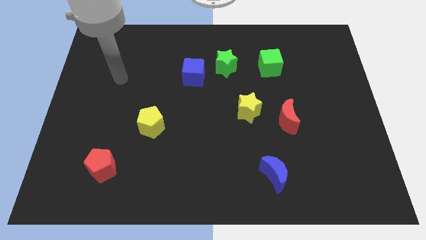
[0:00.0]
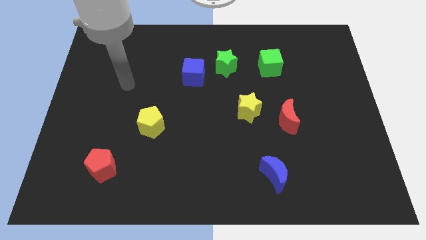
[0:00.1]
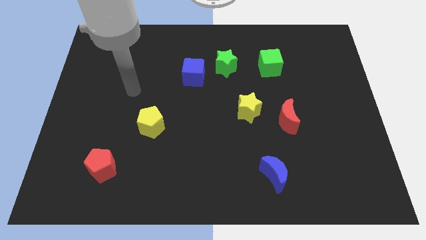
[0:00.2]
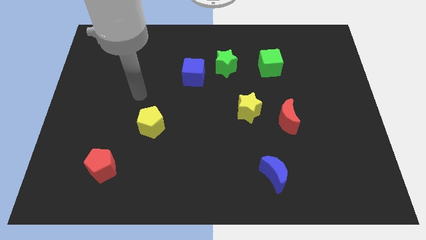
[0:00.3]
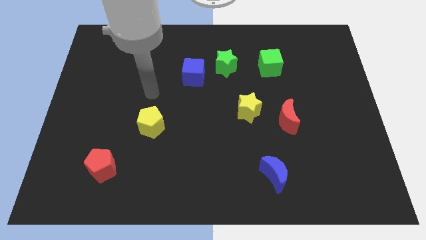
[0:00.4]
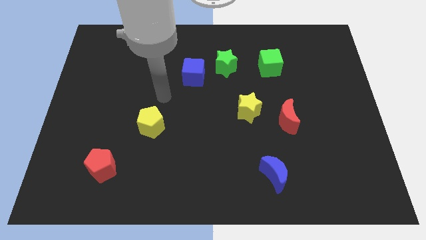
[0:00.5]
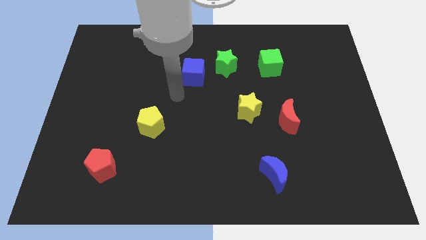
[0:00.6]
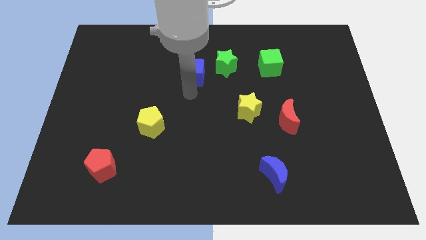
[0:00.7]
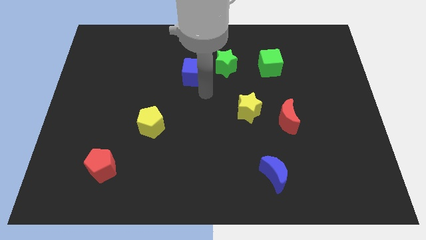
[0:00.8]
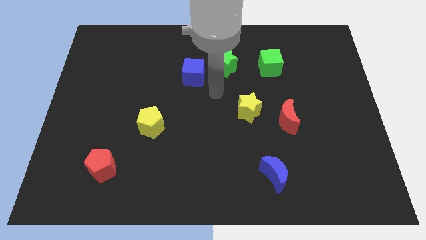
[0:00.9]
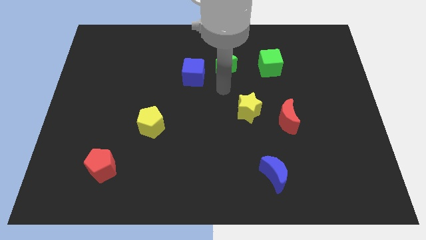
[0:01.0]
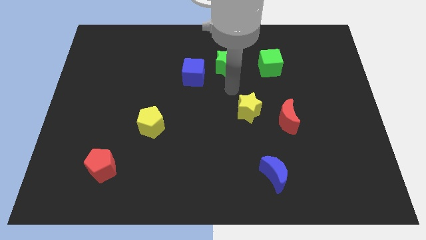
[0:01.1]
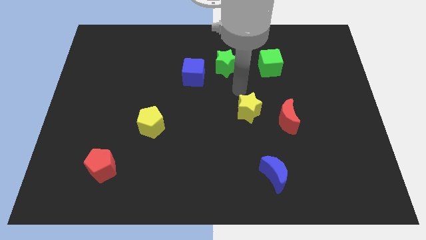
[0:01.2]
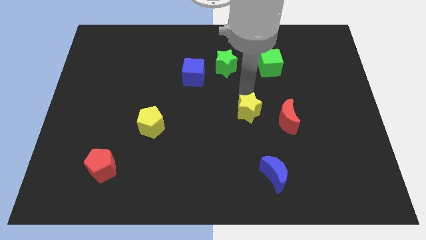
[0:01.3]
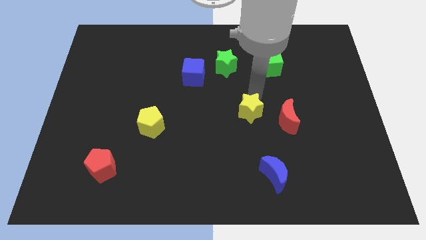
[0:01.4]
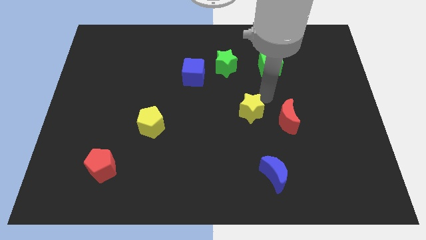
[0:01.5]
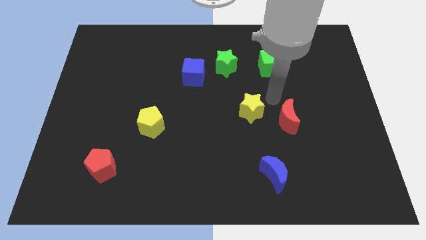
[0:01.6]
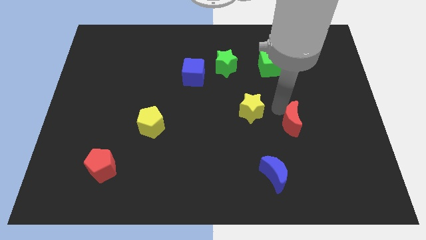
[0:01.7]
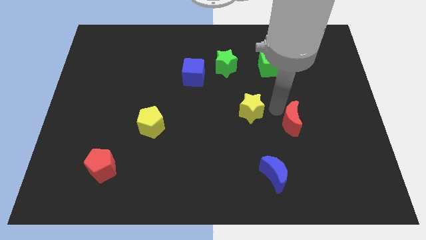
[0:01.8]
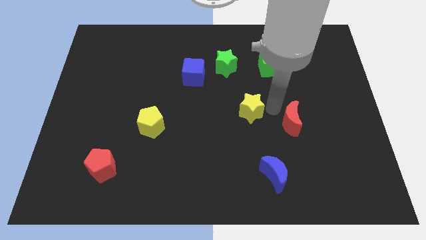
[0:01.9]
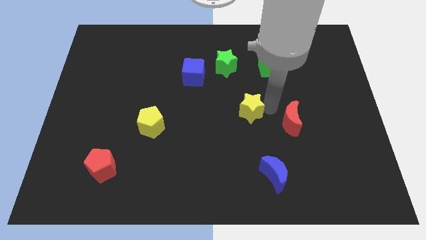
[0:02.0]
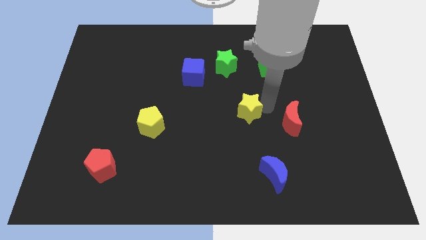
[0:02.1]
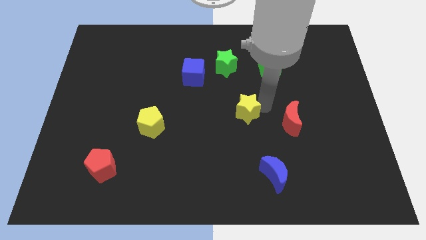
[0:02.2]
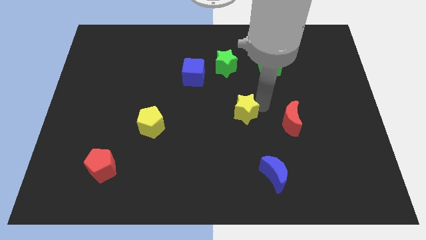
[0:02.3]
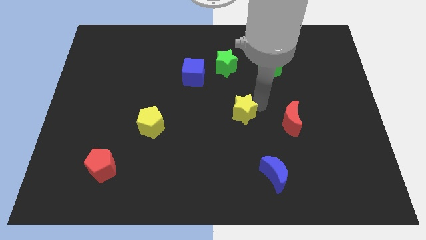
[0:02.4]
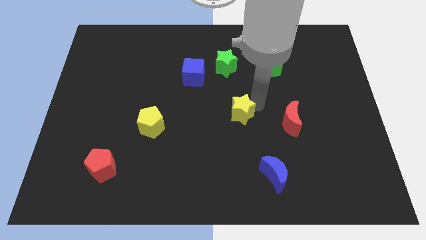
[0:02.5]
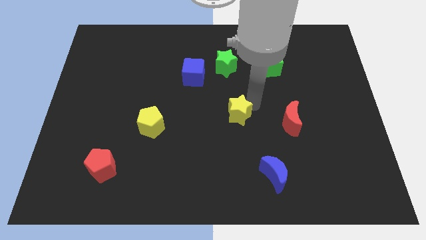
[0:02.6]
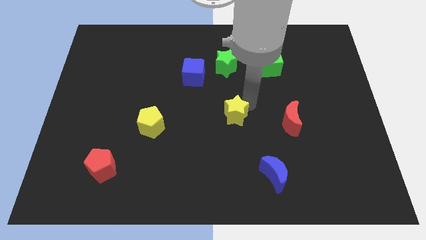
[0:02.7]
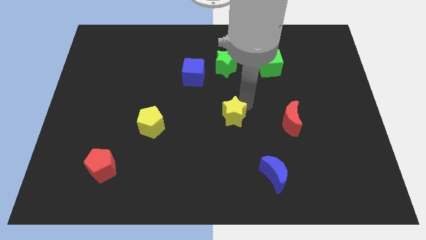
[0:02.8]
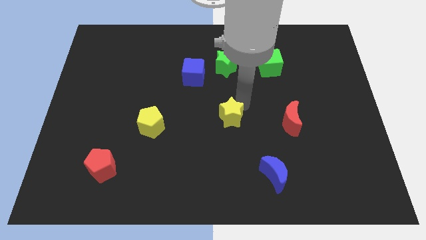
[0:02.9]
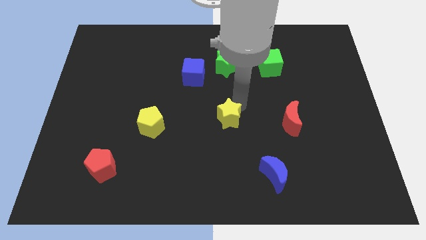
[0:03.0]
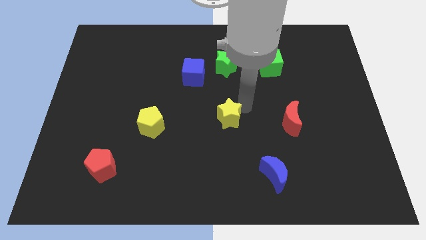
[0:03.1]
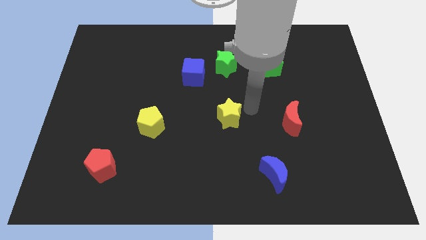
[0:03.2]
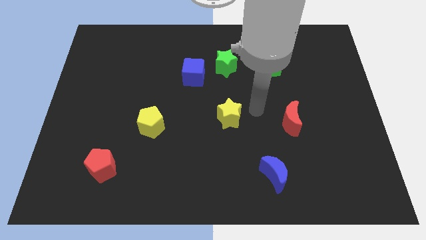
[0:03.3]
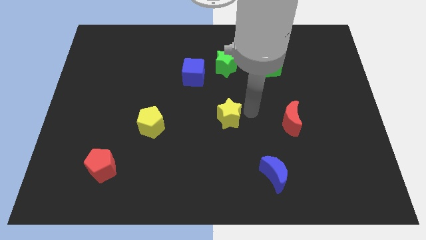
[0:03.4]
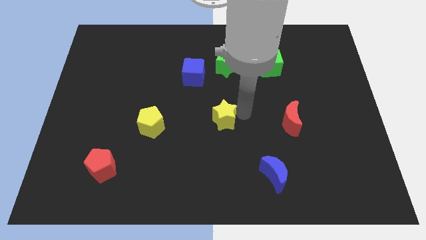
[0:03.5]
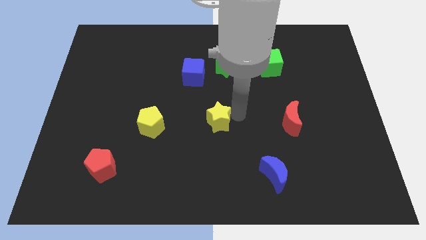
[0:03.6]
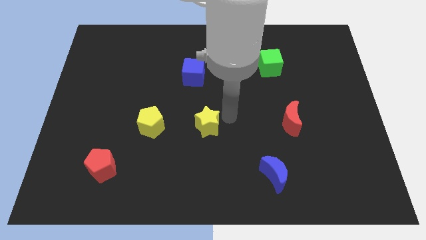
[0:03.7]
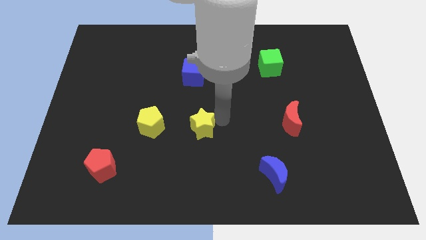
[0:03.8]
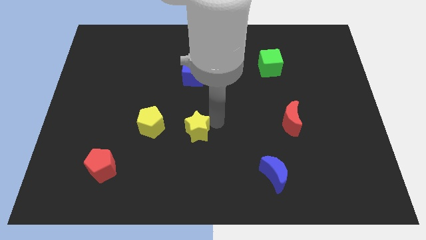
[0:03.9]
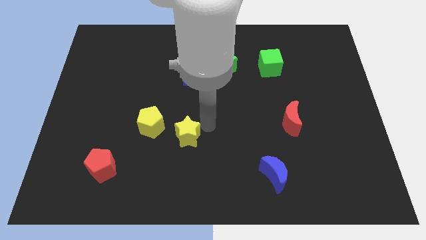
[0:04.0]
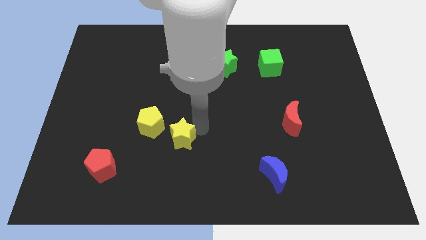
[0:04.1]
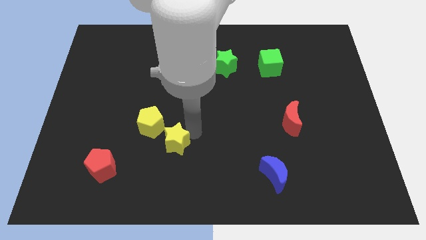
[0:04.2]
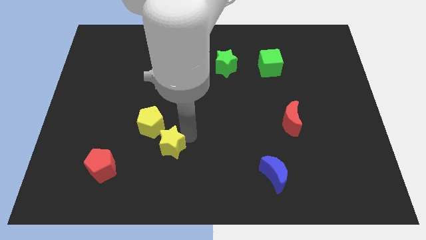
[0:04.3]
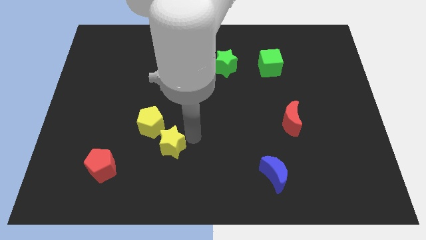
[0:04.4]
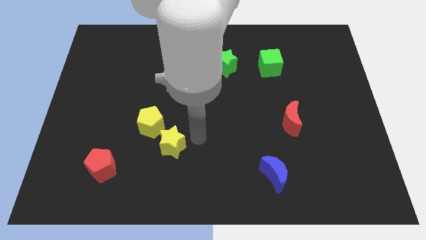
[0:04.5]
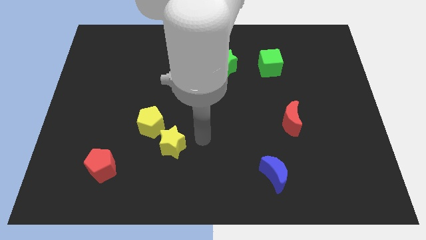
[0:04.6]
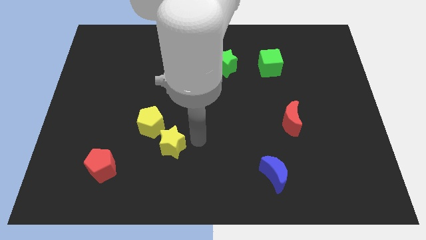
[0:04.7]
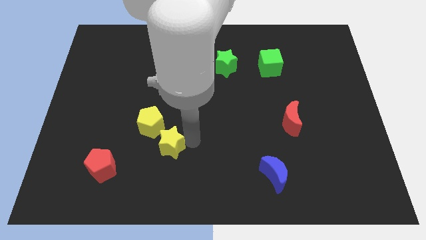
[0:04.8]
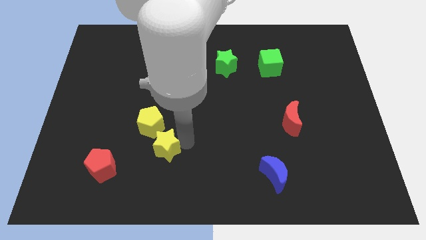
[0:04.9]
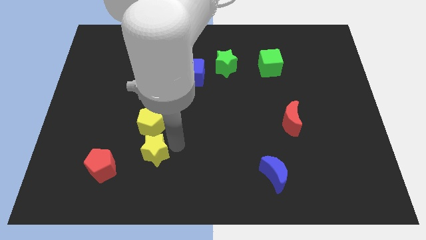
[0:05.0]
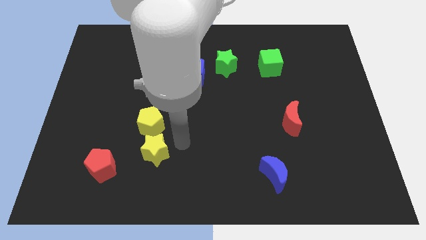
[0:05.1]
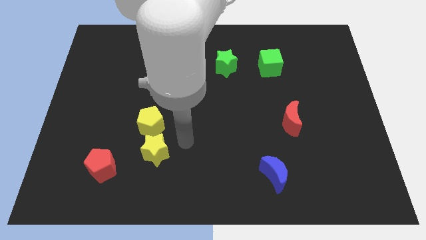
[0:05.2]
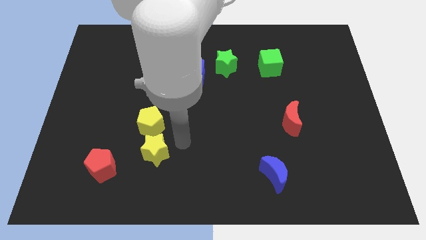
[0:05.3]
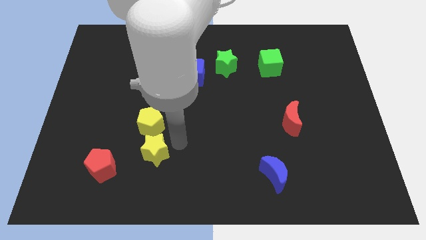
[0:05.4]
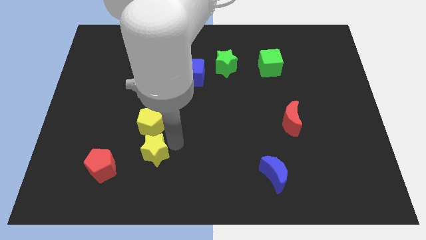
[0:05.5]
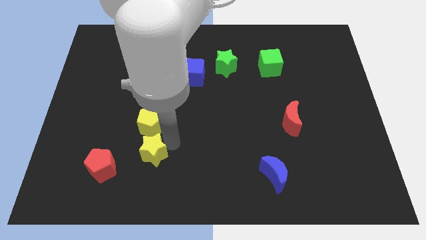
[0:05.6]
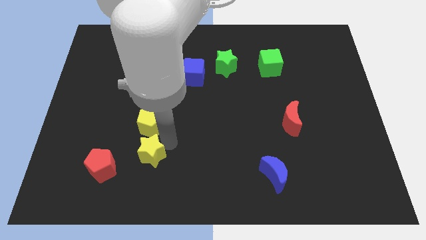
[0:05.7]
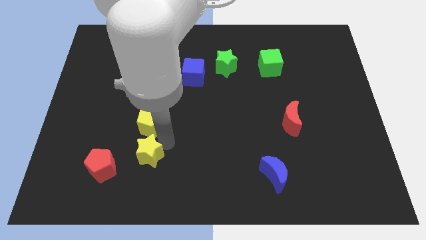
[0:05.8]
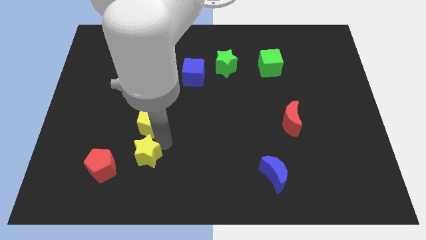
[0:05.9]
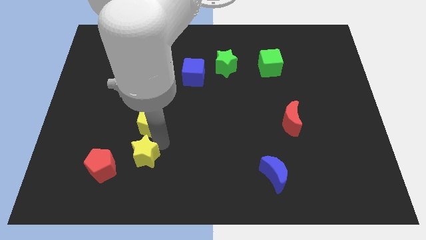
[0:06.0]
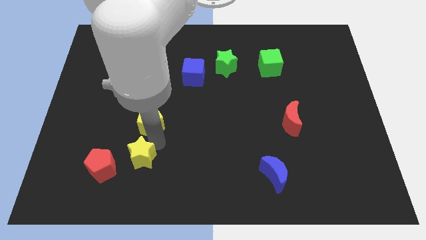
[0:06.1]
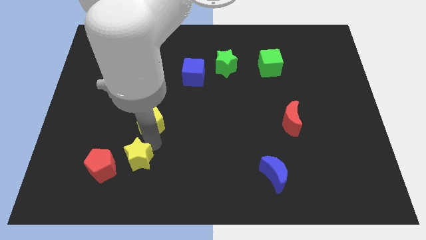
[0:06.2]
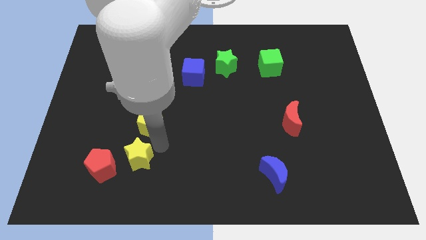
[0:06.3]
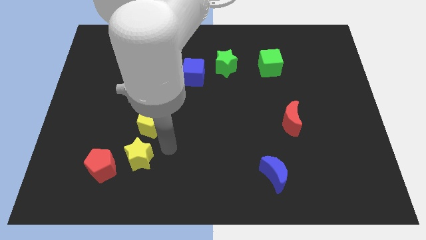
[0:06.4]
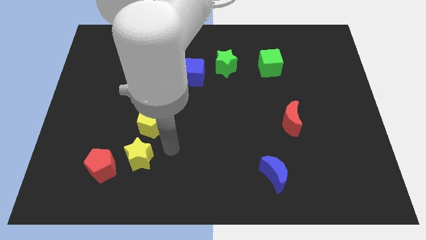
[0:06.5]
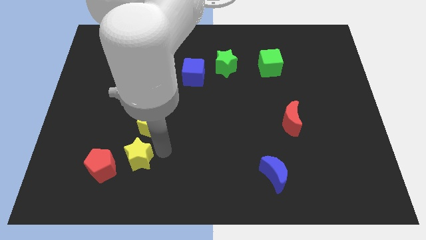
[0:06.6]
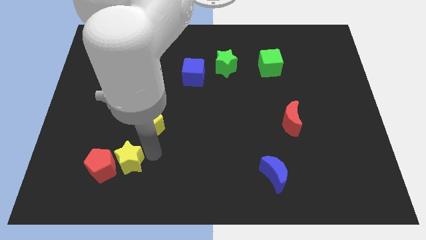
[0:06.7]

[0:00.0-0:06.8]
move the yellow star towards the red pentagon

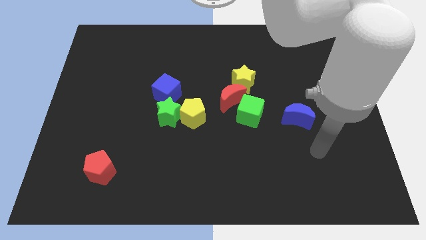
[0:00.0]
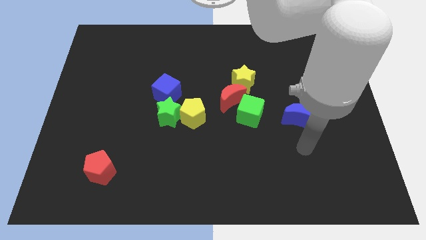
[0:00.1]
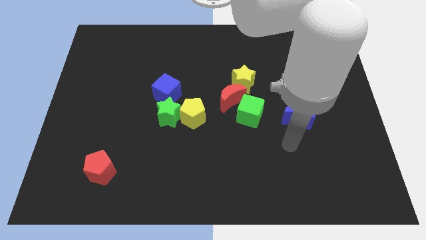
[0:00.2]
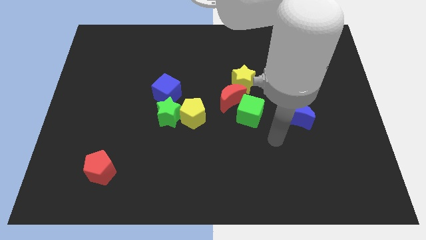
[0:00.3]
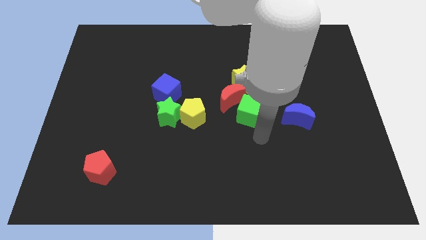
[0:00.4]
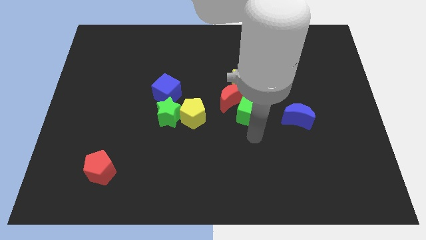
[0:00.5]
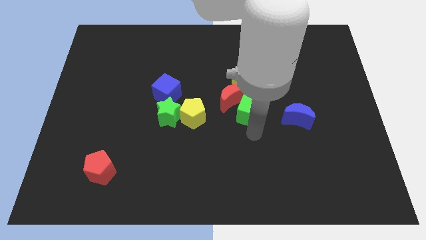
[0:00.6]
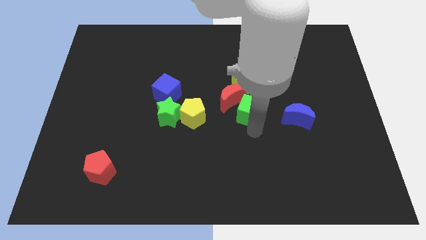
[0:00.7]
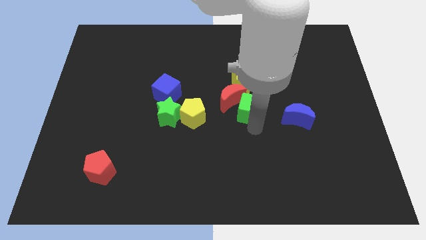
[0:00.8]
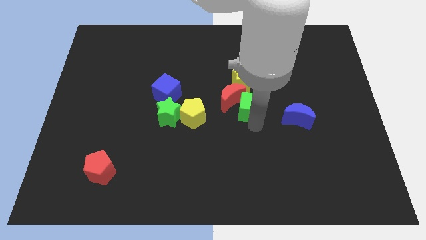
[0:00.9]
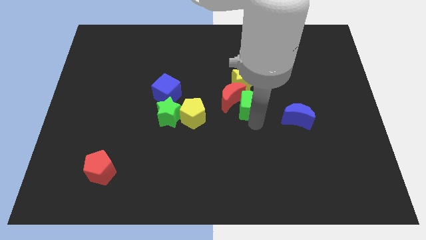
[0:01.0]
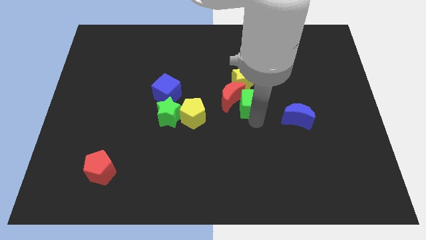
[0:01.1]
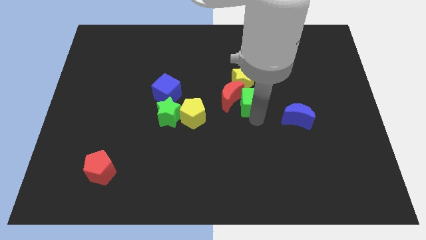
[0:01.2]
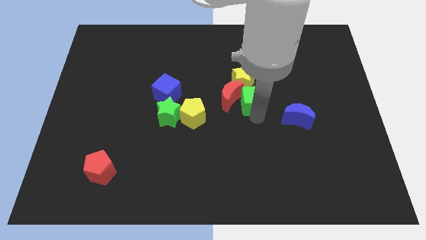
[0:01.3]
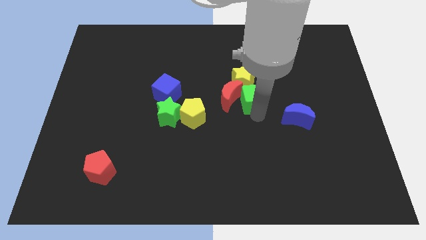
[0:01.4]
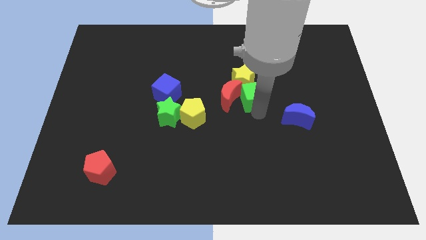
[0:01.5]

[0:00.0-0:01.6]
push the green cube next to the yellow star
